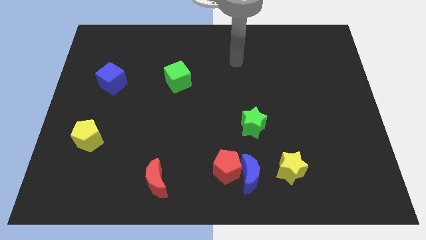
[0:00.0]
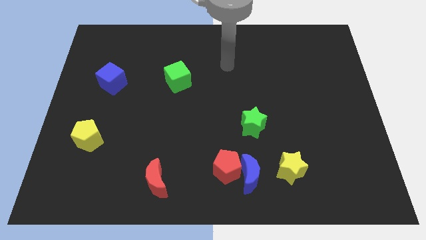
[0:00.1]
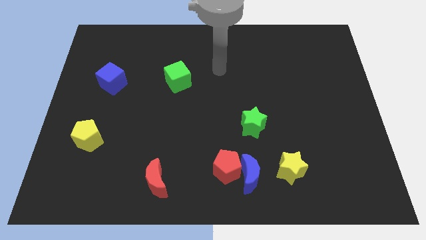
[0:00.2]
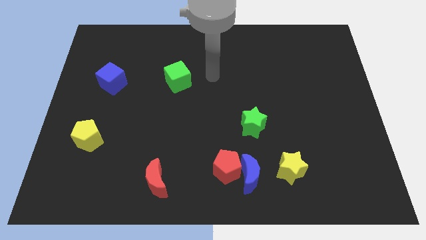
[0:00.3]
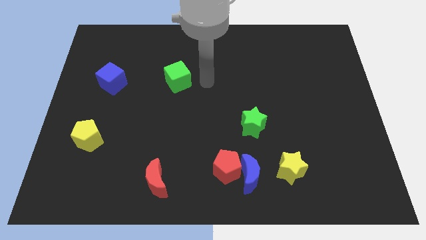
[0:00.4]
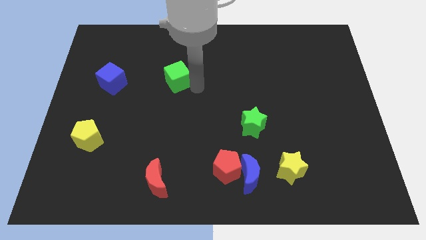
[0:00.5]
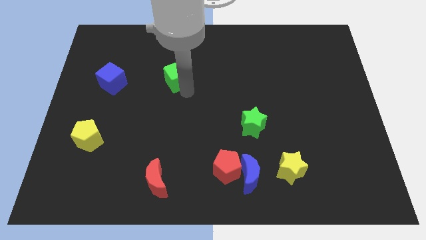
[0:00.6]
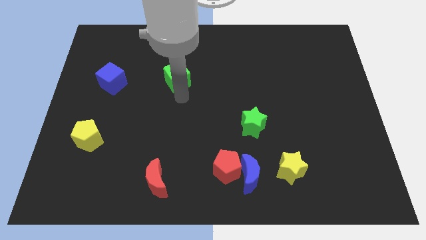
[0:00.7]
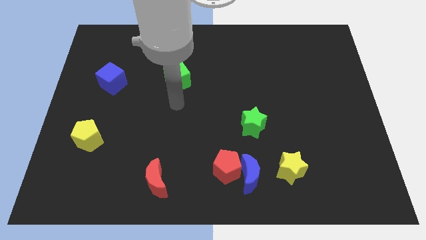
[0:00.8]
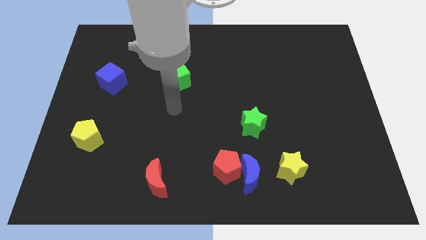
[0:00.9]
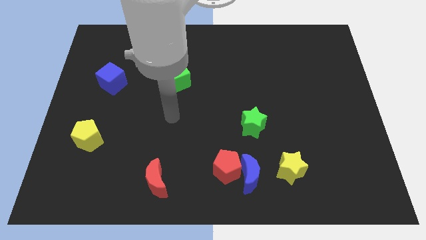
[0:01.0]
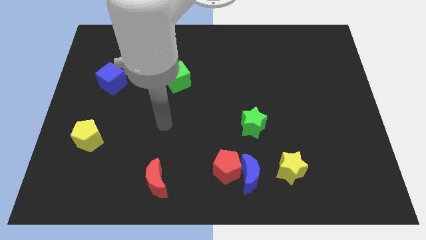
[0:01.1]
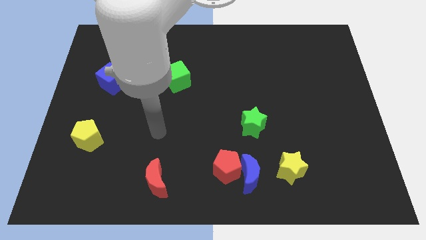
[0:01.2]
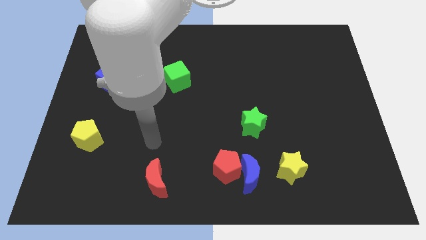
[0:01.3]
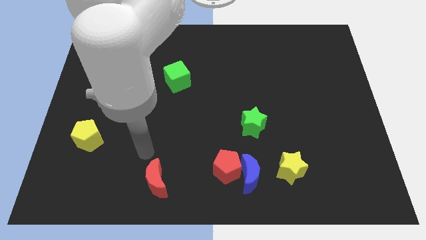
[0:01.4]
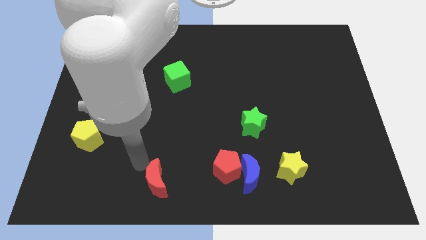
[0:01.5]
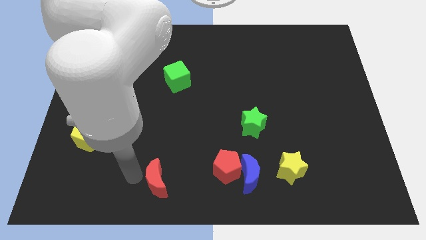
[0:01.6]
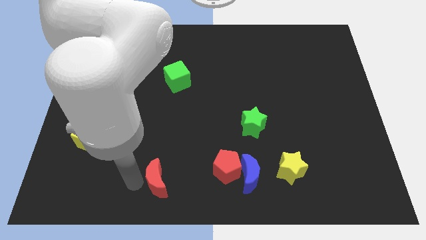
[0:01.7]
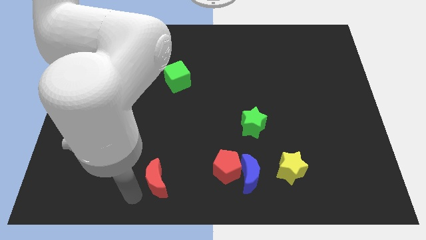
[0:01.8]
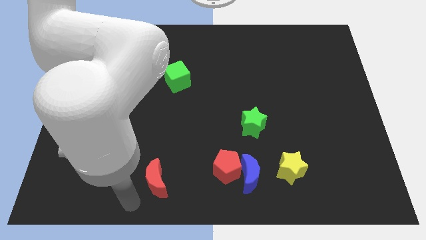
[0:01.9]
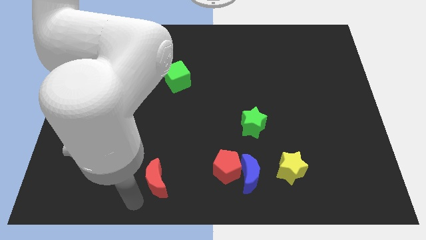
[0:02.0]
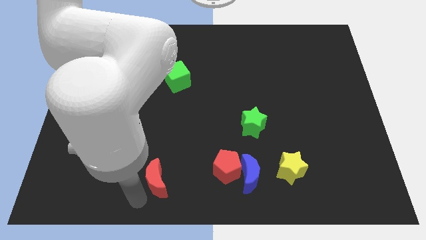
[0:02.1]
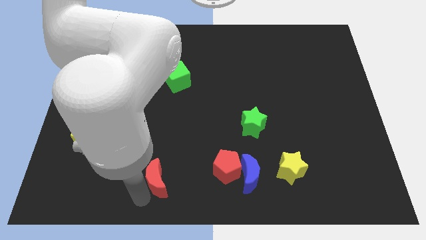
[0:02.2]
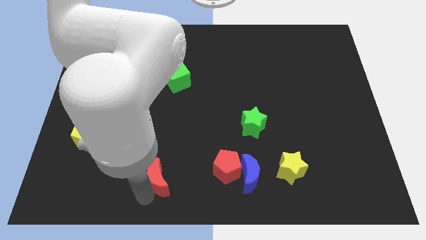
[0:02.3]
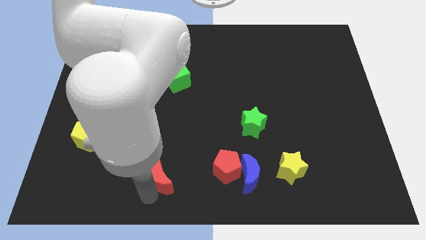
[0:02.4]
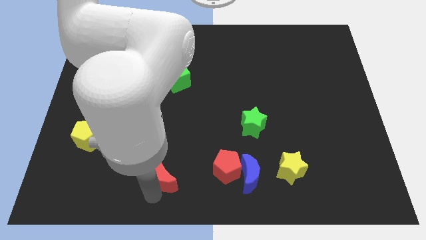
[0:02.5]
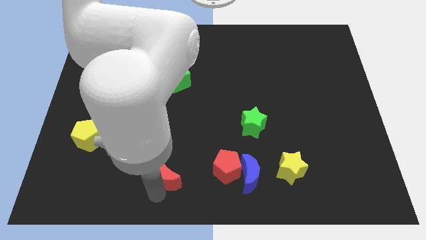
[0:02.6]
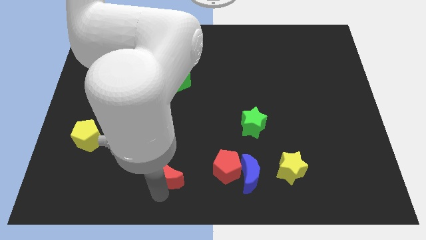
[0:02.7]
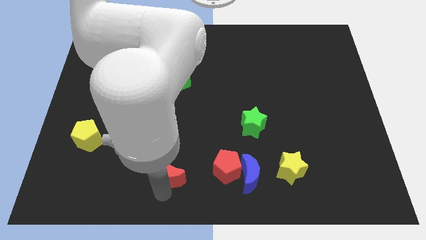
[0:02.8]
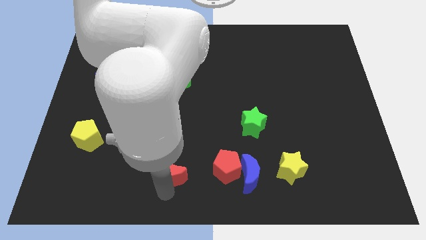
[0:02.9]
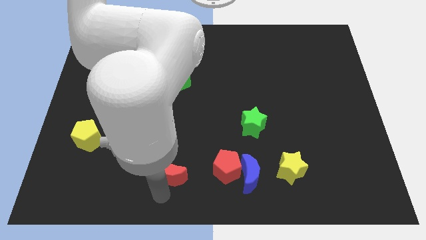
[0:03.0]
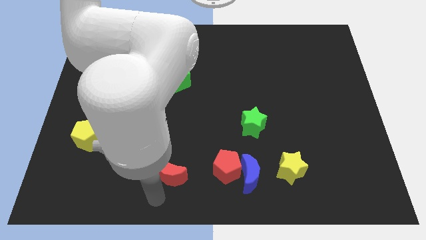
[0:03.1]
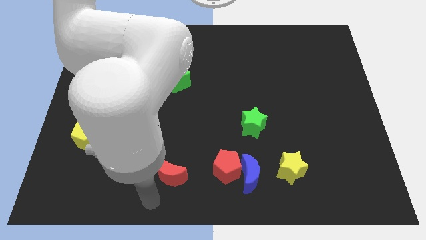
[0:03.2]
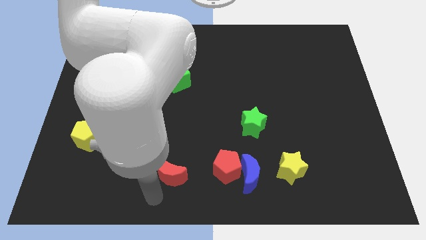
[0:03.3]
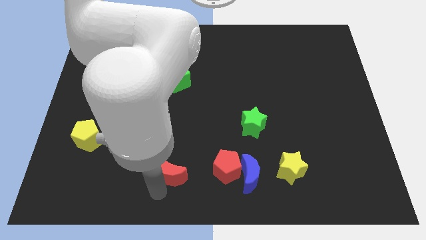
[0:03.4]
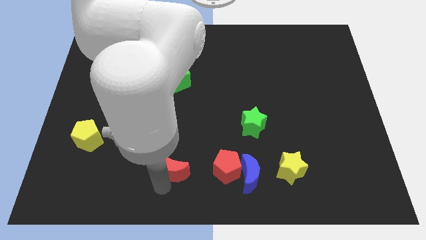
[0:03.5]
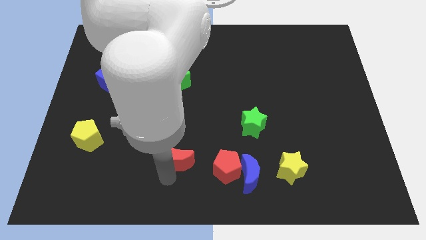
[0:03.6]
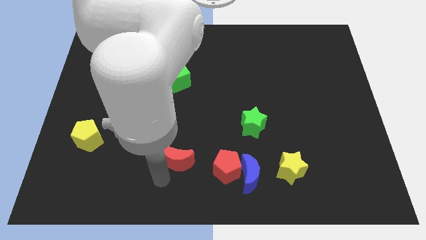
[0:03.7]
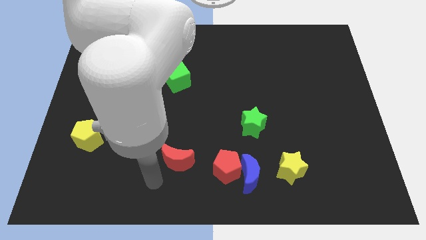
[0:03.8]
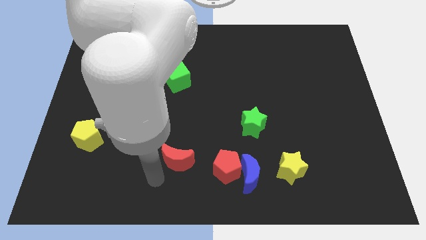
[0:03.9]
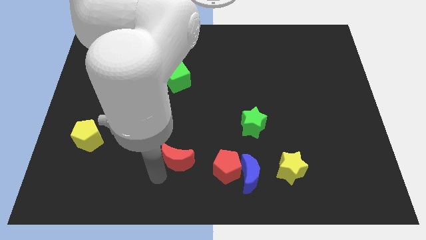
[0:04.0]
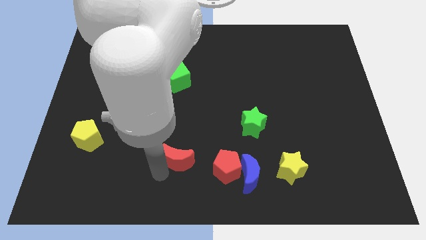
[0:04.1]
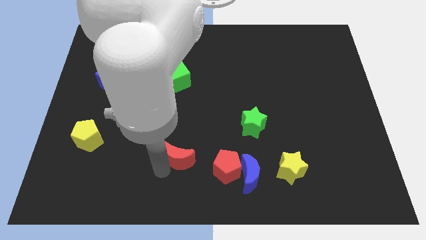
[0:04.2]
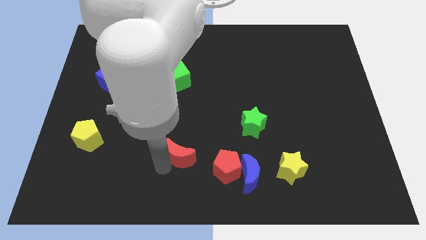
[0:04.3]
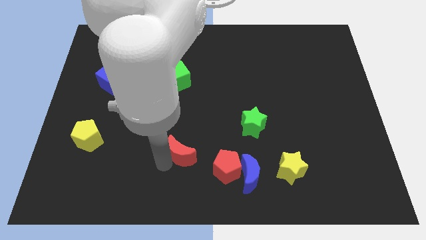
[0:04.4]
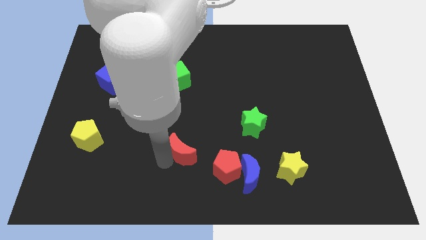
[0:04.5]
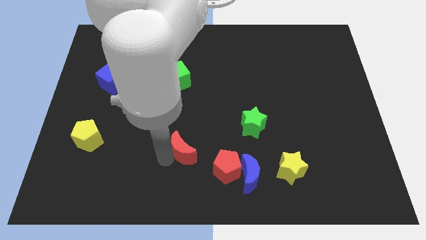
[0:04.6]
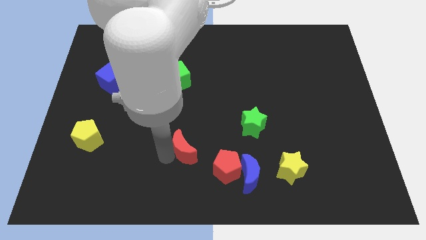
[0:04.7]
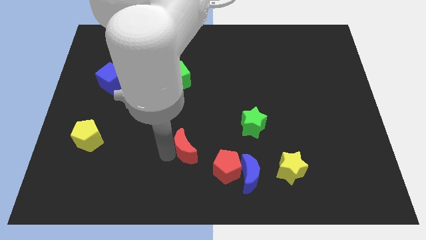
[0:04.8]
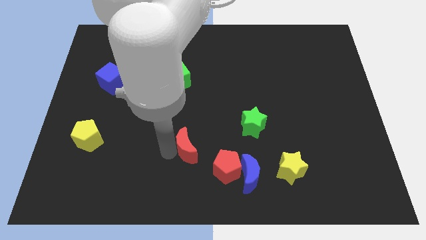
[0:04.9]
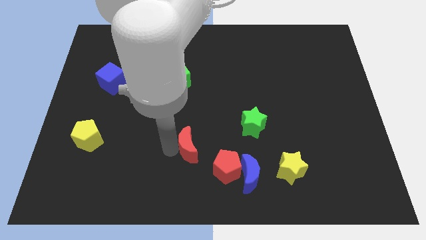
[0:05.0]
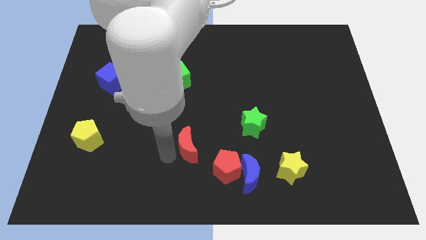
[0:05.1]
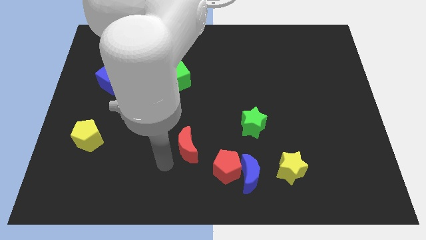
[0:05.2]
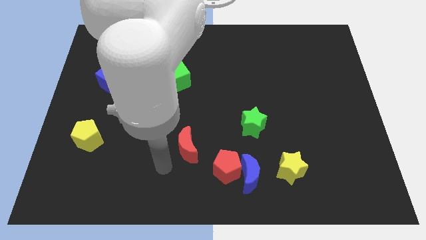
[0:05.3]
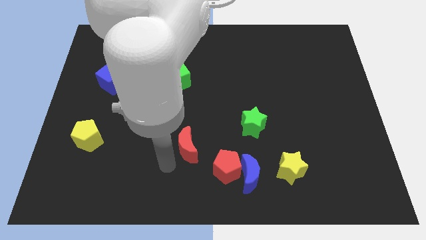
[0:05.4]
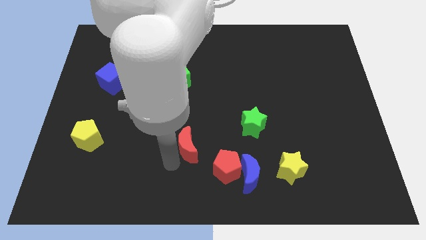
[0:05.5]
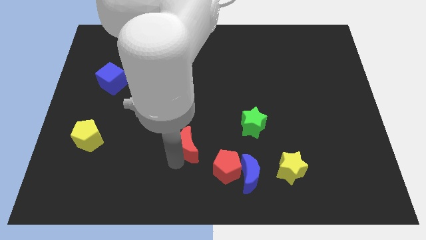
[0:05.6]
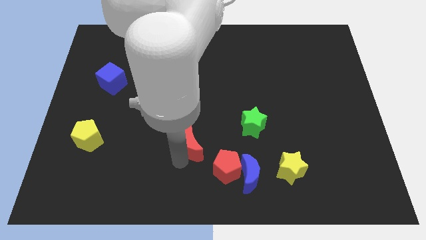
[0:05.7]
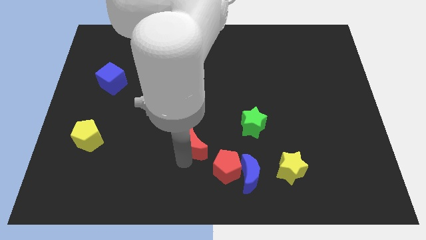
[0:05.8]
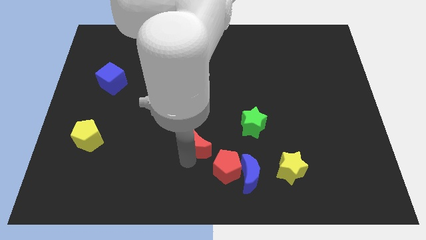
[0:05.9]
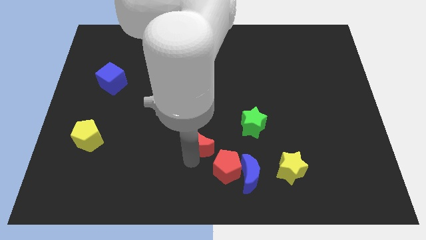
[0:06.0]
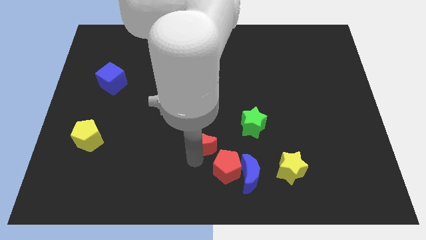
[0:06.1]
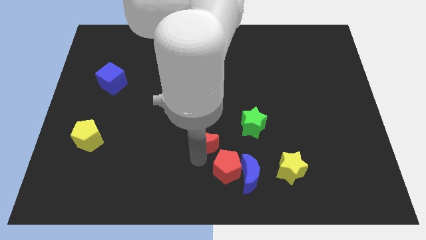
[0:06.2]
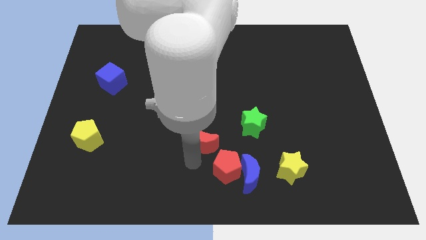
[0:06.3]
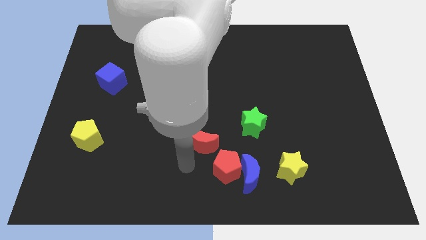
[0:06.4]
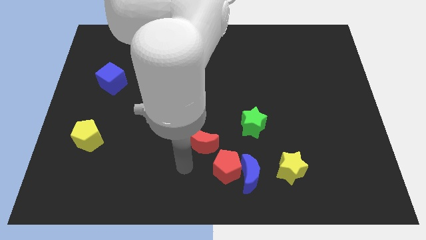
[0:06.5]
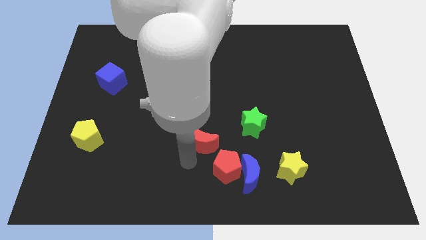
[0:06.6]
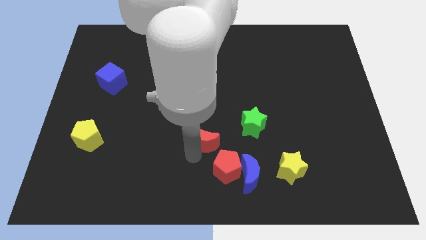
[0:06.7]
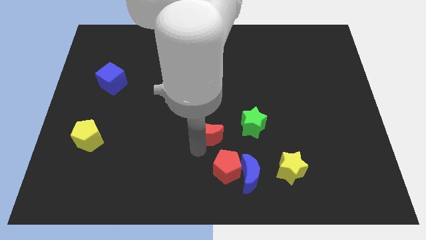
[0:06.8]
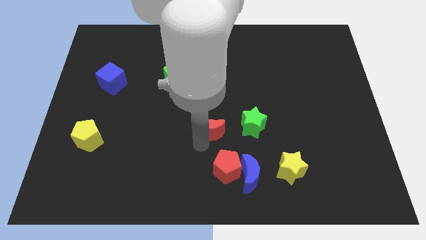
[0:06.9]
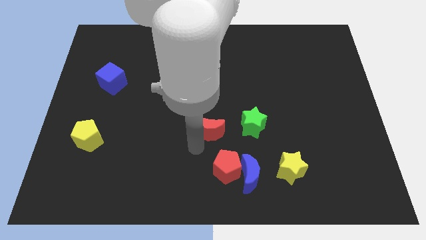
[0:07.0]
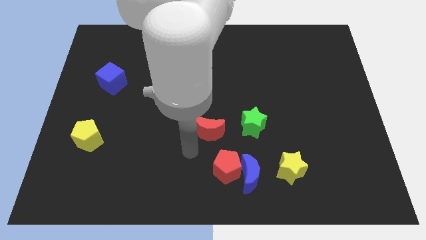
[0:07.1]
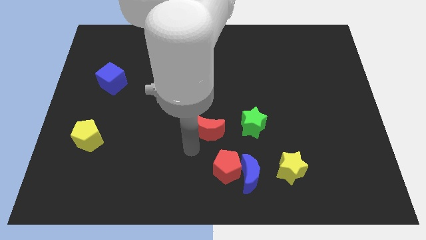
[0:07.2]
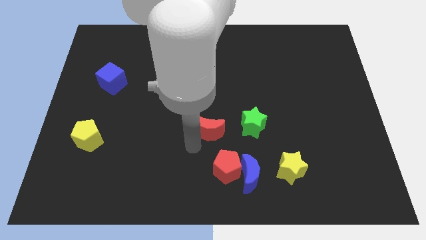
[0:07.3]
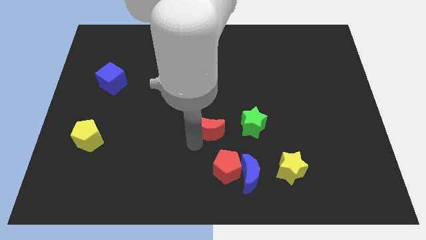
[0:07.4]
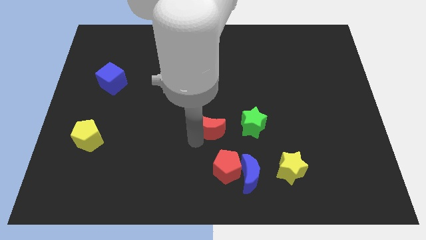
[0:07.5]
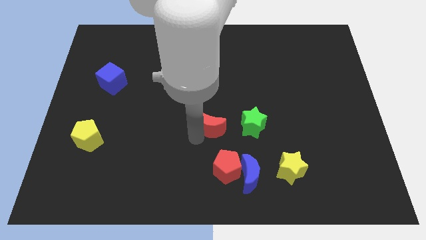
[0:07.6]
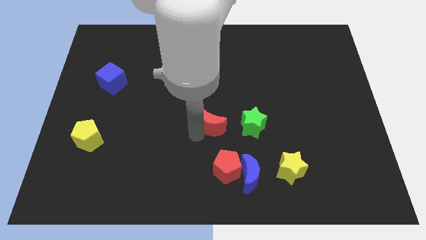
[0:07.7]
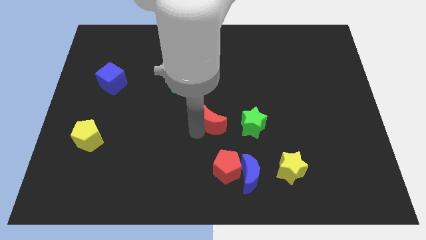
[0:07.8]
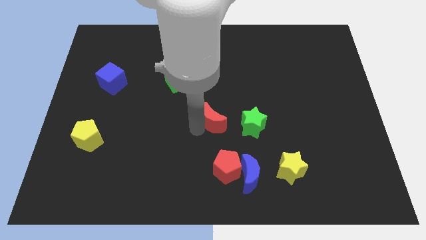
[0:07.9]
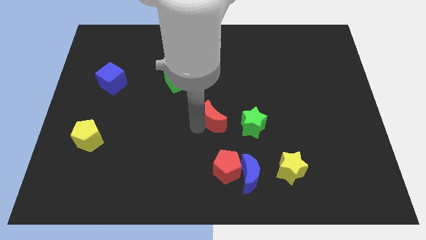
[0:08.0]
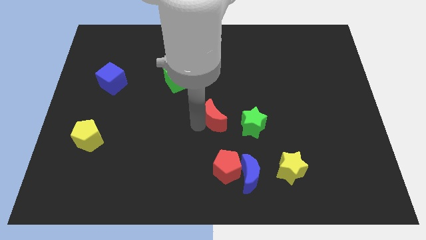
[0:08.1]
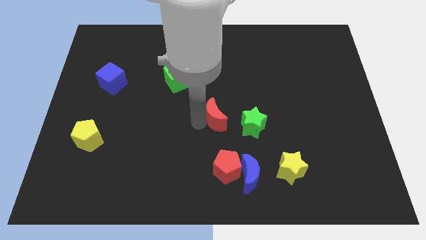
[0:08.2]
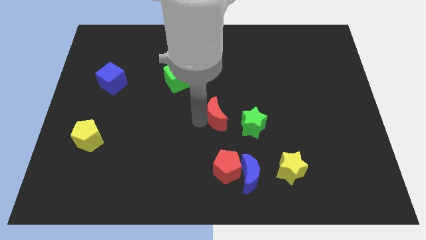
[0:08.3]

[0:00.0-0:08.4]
push the red moon diagonally up and right

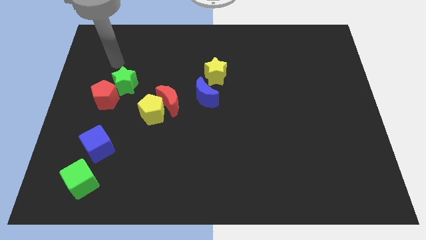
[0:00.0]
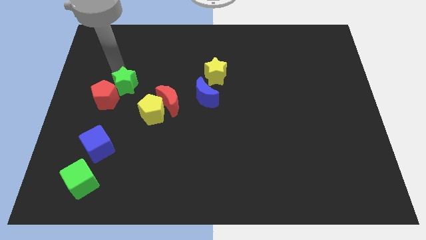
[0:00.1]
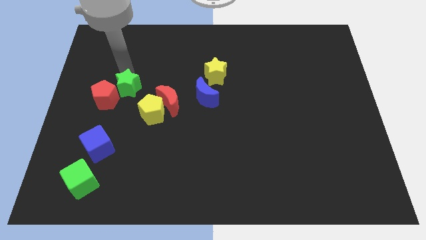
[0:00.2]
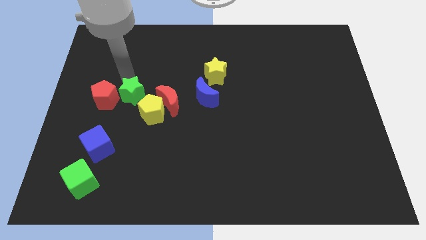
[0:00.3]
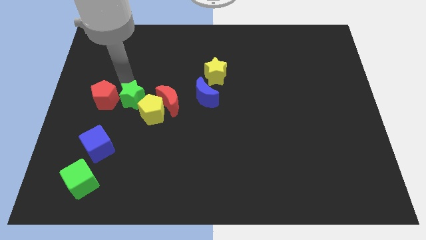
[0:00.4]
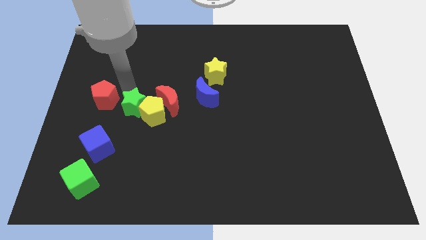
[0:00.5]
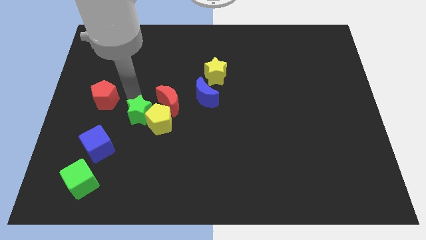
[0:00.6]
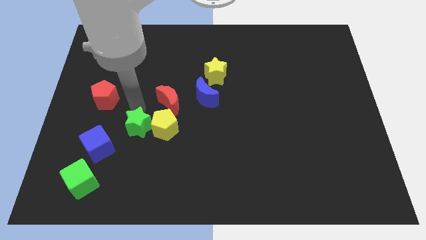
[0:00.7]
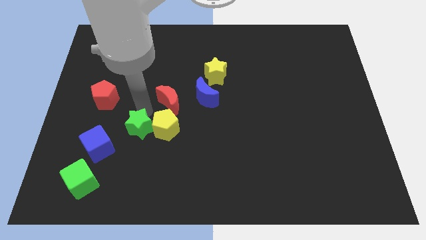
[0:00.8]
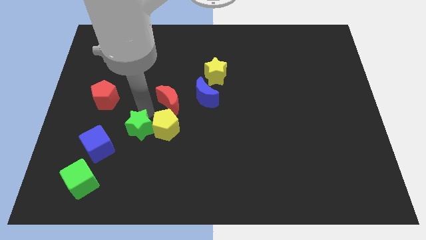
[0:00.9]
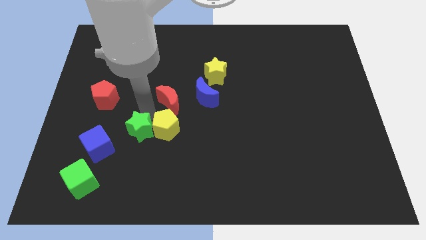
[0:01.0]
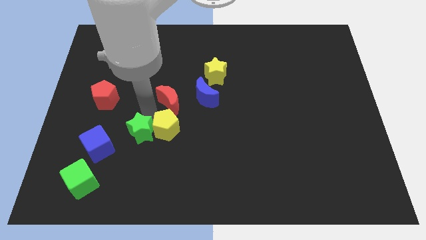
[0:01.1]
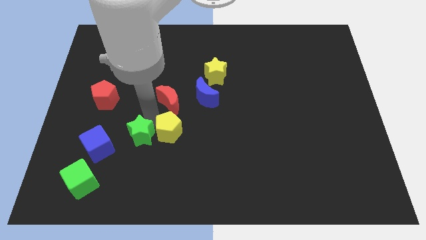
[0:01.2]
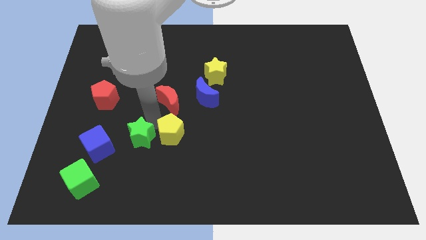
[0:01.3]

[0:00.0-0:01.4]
push the yellow pentagon a little down and to the right
